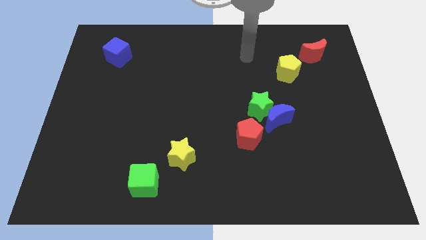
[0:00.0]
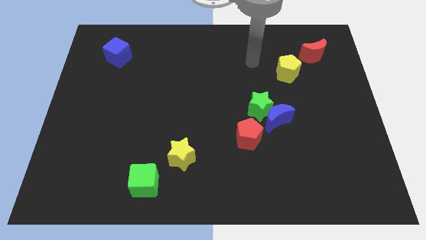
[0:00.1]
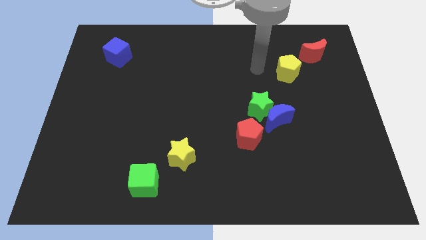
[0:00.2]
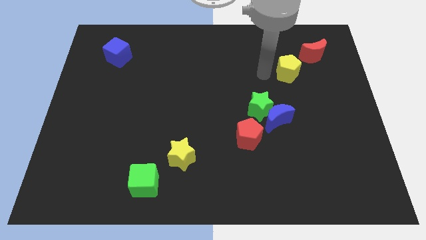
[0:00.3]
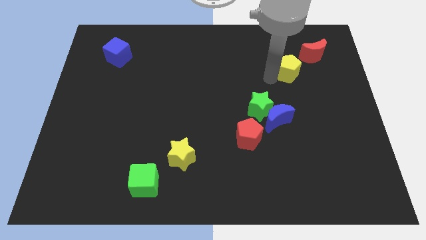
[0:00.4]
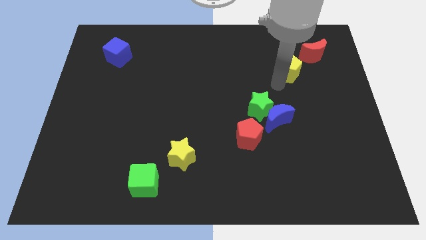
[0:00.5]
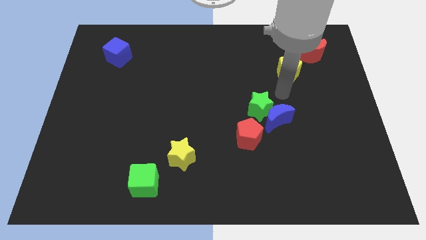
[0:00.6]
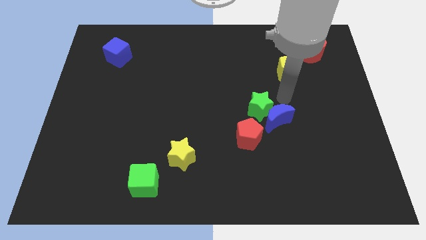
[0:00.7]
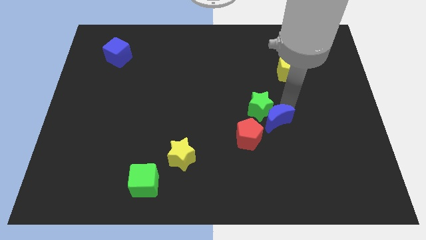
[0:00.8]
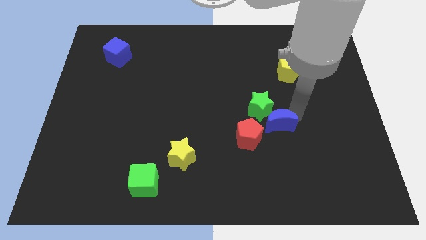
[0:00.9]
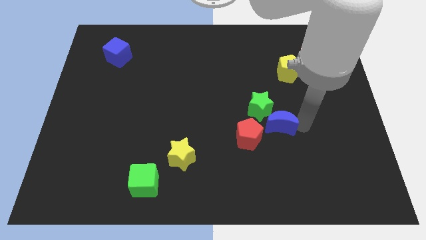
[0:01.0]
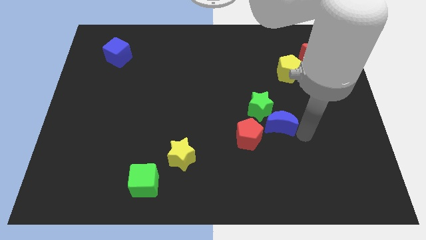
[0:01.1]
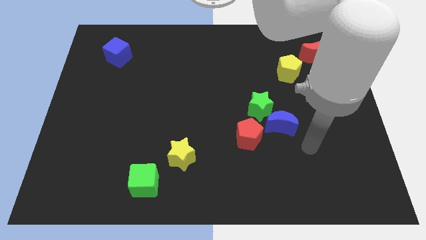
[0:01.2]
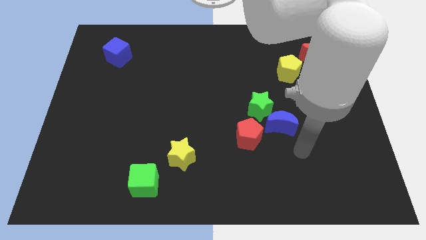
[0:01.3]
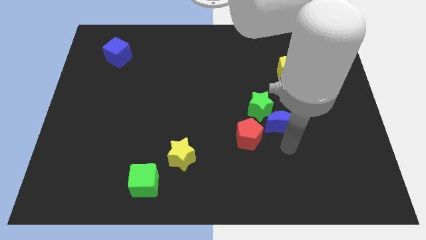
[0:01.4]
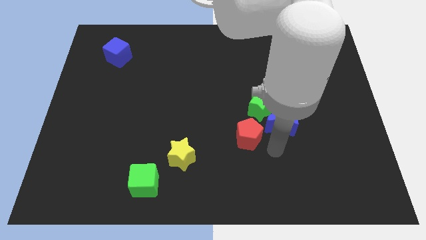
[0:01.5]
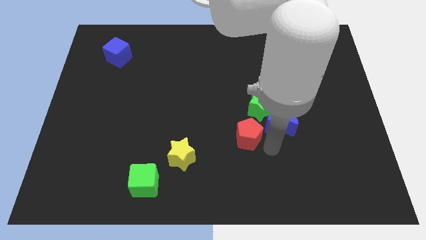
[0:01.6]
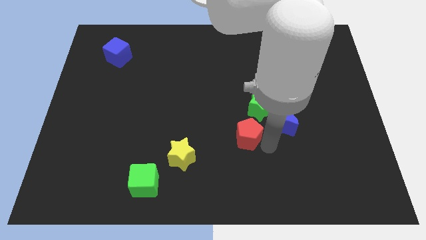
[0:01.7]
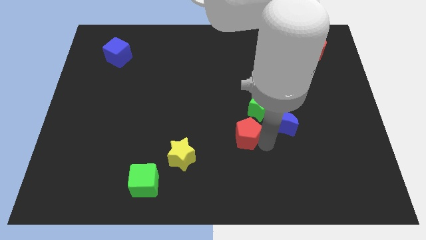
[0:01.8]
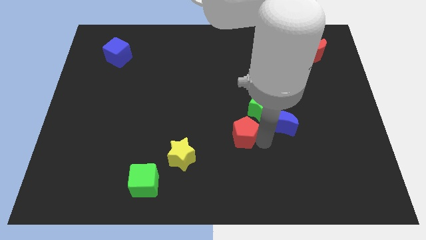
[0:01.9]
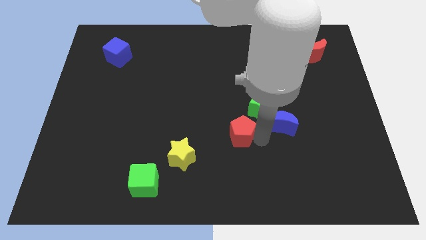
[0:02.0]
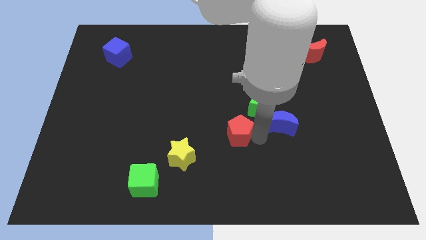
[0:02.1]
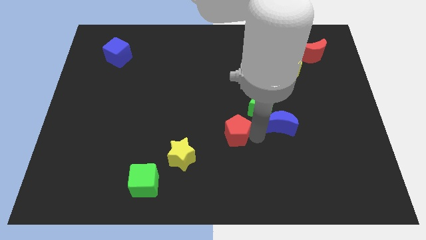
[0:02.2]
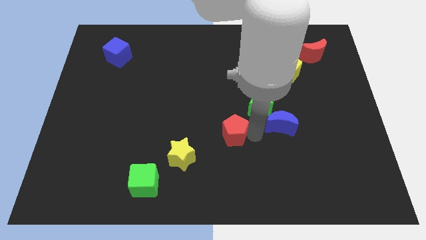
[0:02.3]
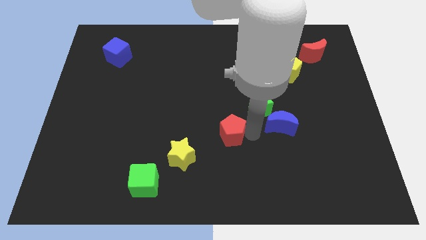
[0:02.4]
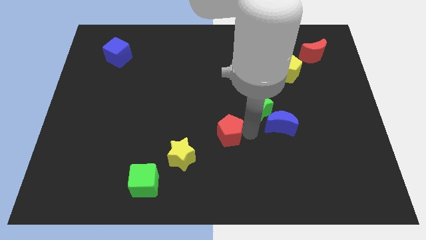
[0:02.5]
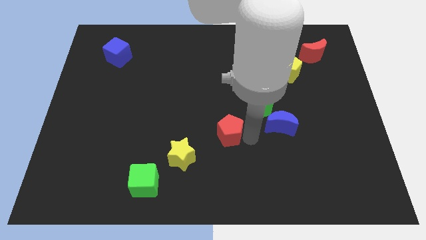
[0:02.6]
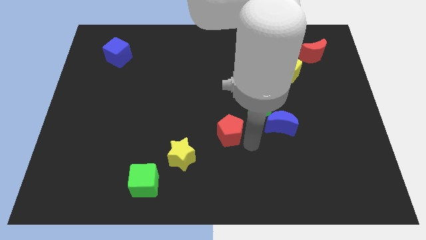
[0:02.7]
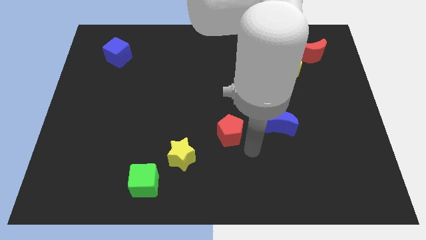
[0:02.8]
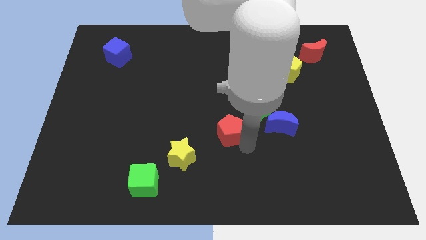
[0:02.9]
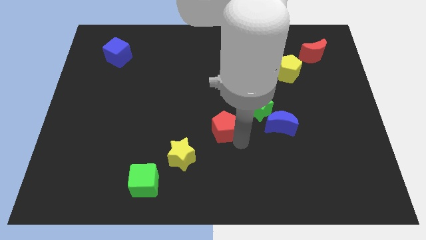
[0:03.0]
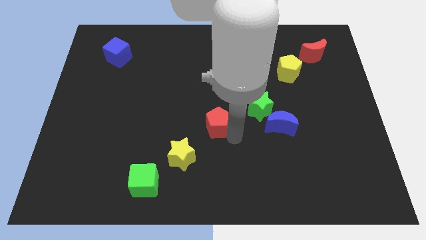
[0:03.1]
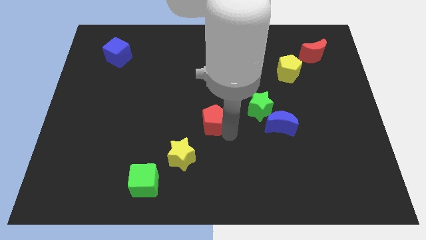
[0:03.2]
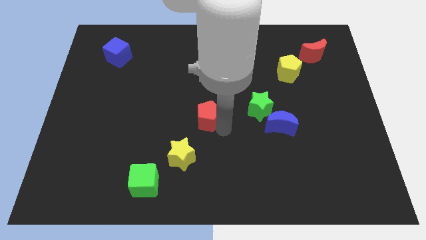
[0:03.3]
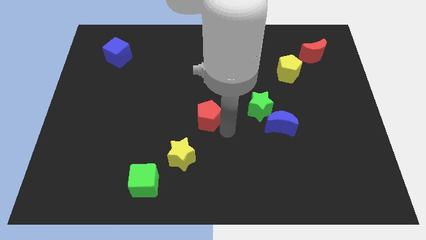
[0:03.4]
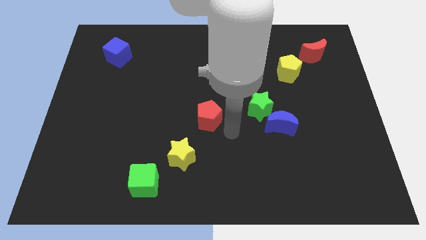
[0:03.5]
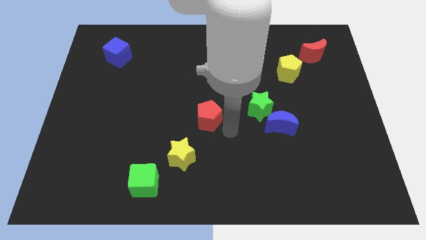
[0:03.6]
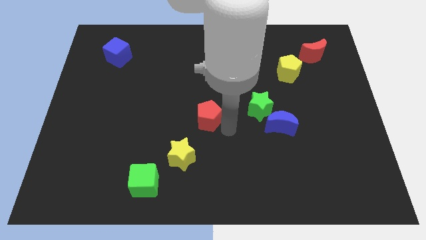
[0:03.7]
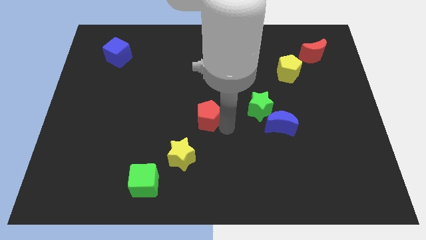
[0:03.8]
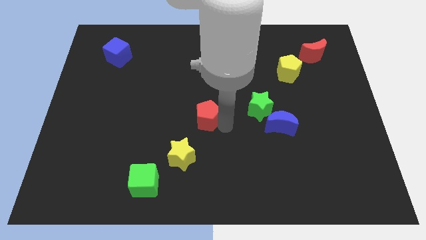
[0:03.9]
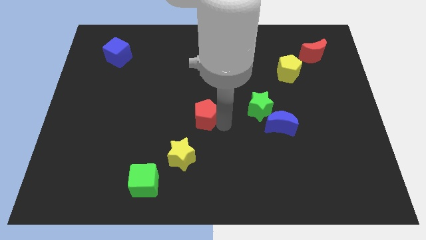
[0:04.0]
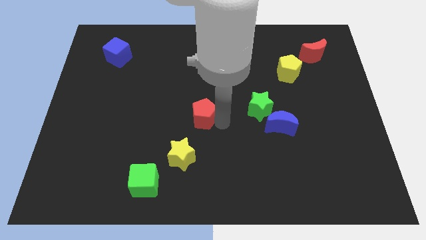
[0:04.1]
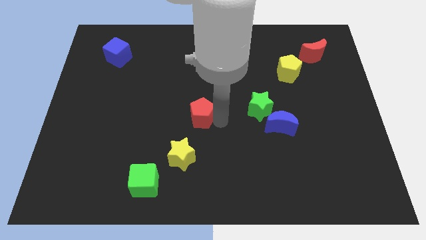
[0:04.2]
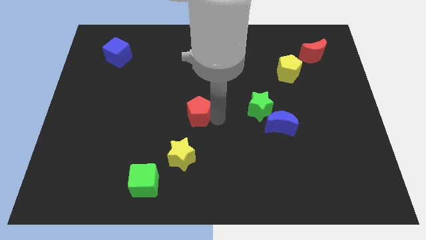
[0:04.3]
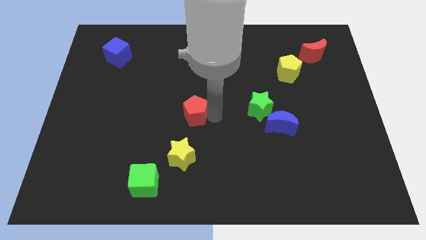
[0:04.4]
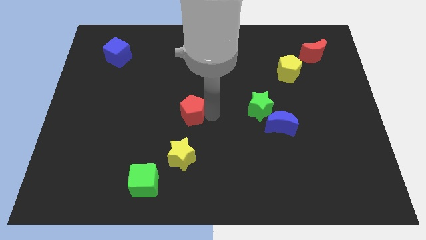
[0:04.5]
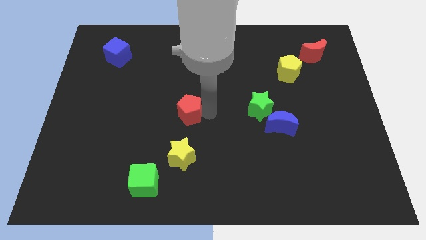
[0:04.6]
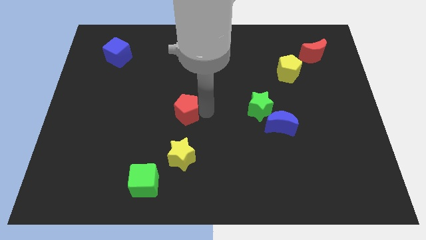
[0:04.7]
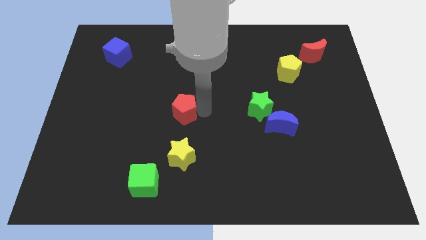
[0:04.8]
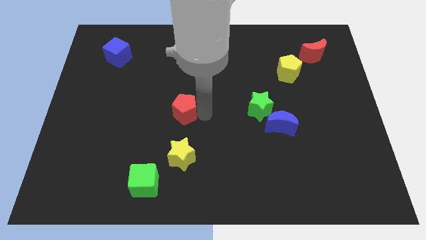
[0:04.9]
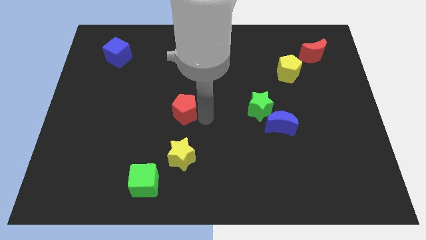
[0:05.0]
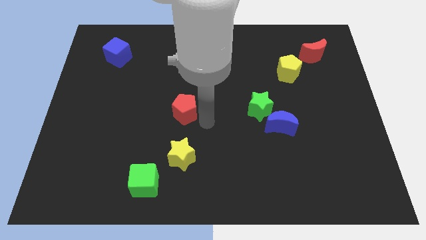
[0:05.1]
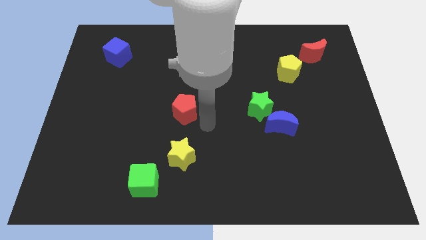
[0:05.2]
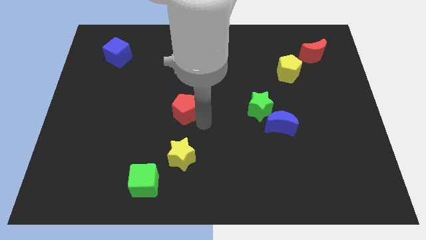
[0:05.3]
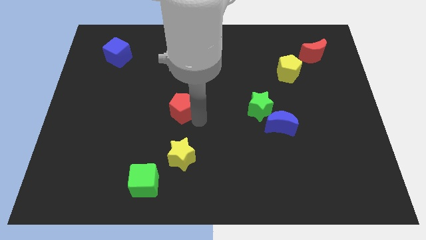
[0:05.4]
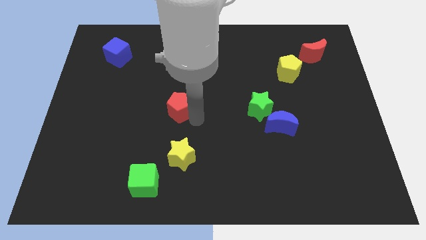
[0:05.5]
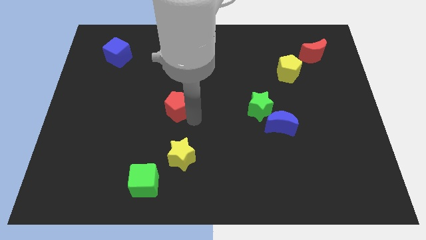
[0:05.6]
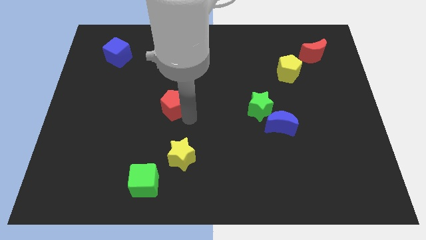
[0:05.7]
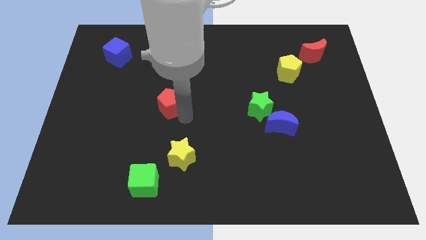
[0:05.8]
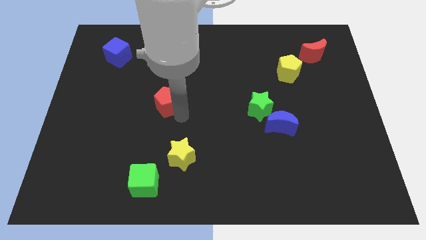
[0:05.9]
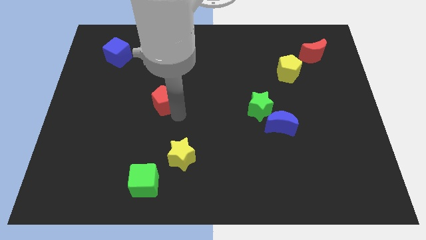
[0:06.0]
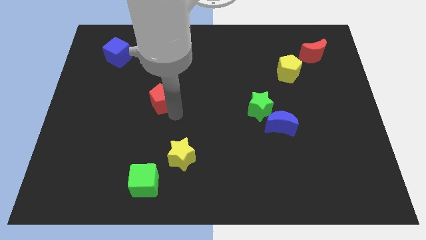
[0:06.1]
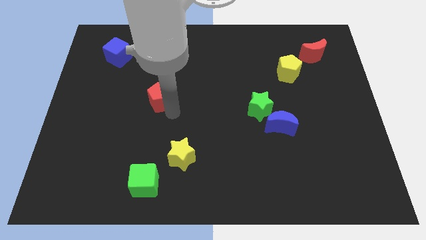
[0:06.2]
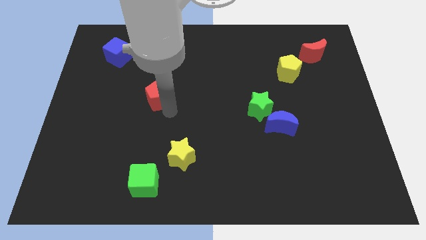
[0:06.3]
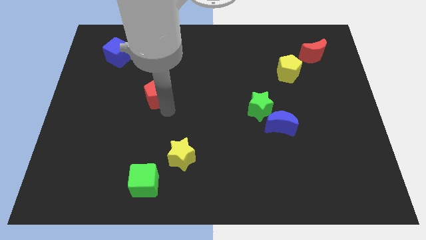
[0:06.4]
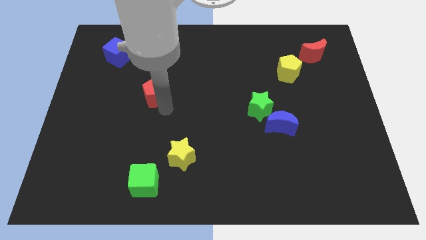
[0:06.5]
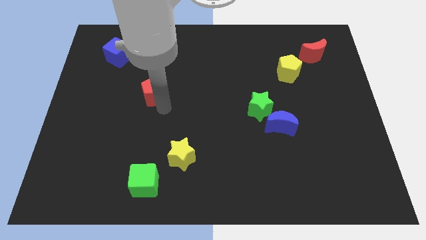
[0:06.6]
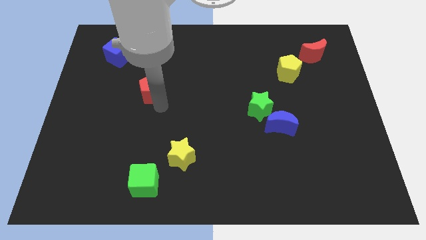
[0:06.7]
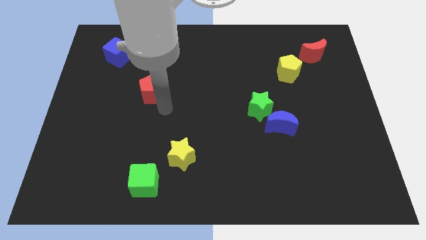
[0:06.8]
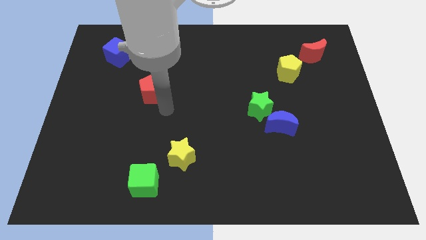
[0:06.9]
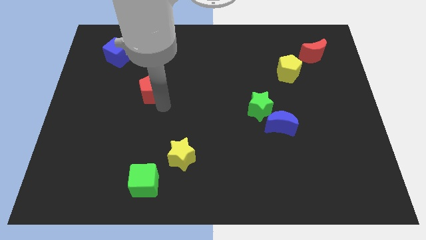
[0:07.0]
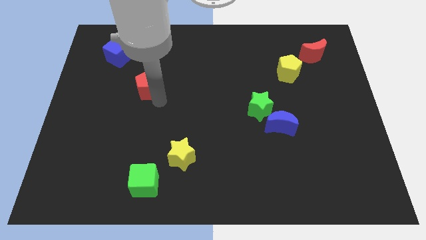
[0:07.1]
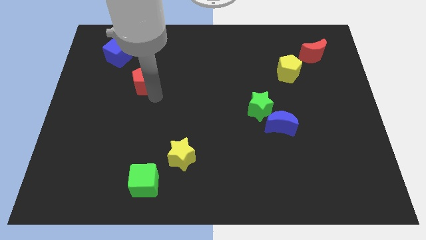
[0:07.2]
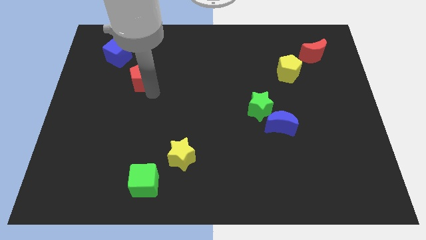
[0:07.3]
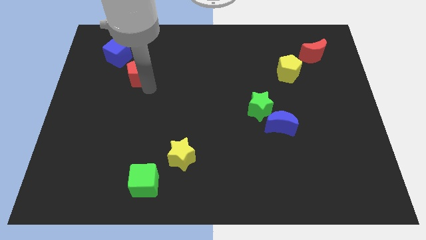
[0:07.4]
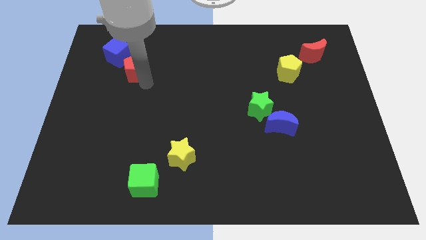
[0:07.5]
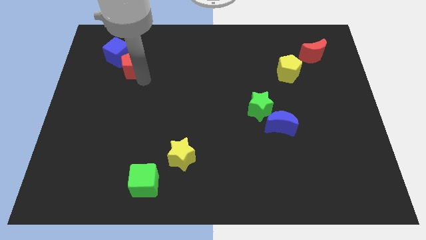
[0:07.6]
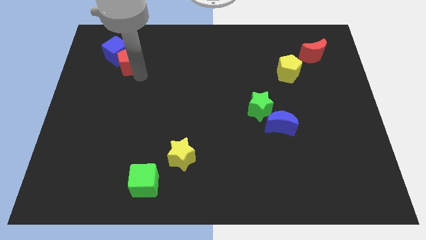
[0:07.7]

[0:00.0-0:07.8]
move the red pentagon next to the blue cube
